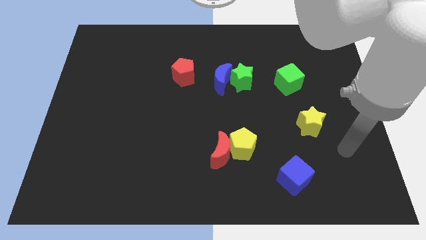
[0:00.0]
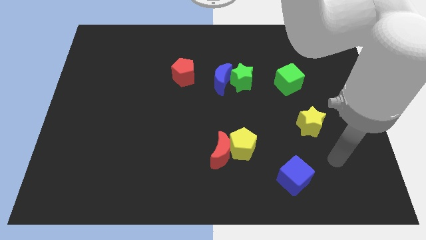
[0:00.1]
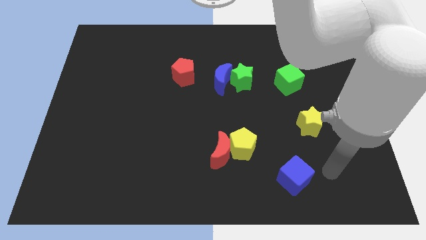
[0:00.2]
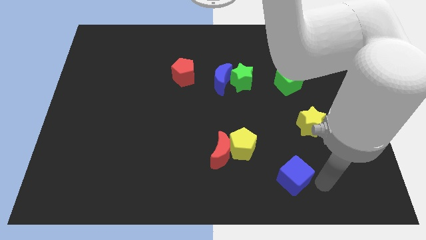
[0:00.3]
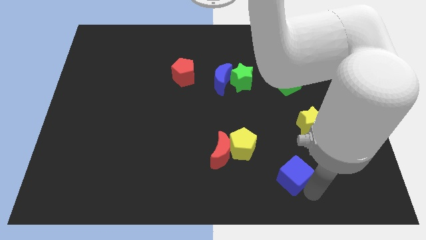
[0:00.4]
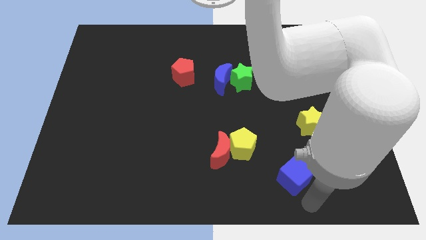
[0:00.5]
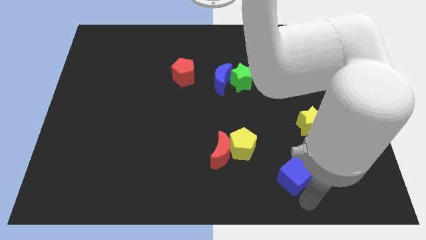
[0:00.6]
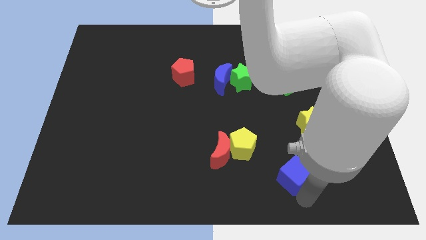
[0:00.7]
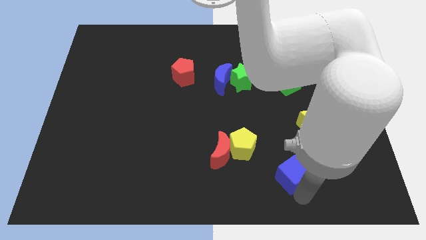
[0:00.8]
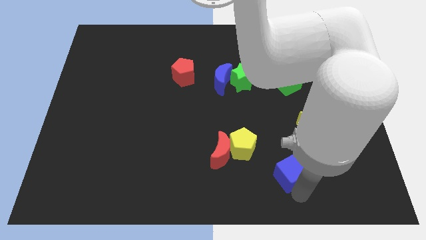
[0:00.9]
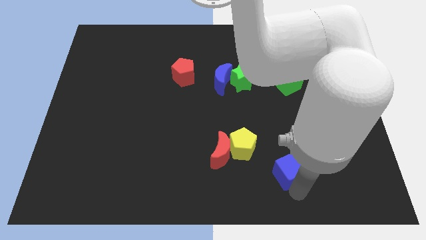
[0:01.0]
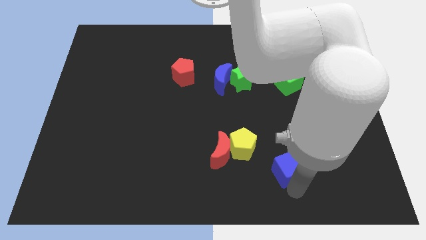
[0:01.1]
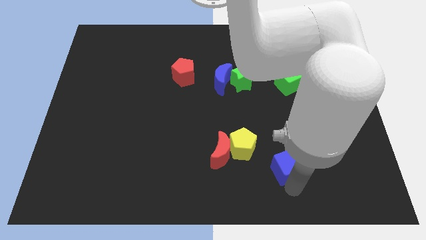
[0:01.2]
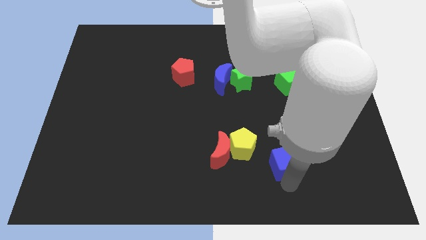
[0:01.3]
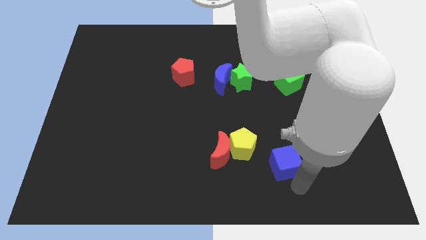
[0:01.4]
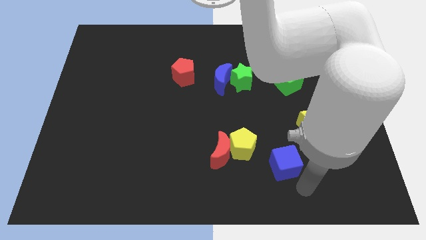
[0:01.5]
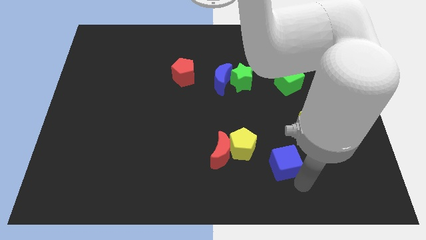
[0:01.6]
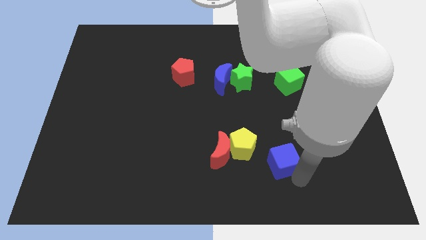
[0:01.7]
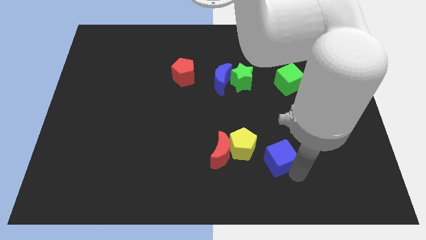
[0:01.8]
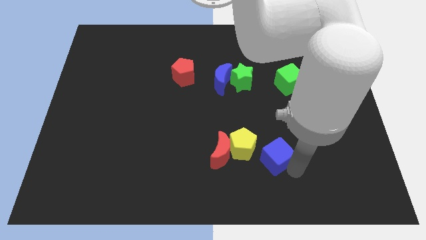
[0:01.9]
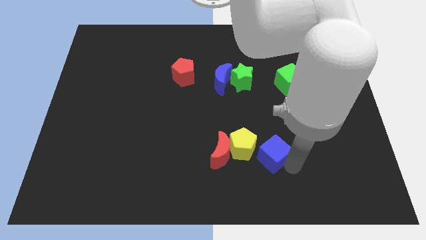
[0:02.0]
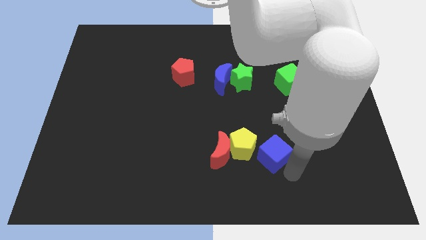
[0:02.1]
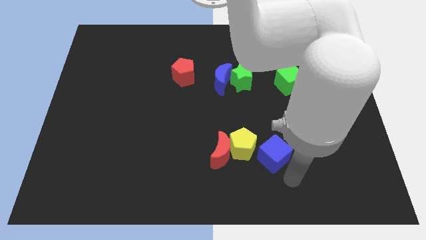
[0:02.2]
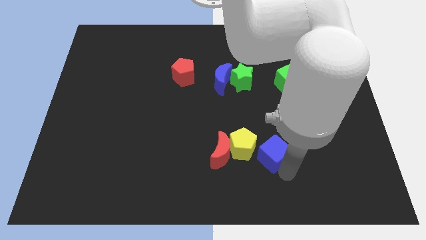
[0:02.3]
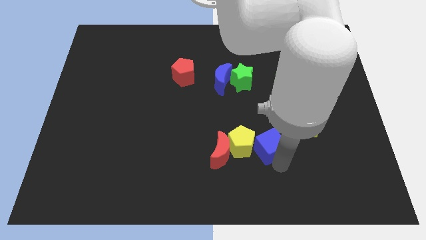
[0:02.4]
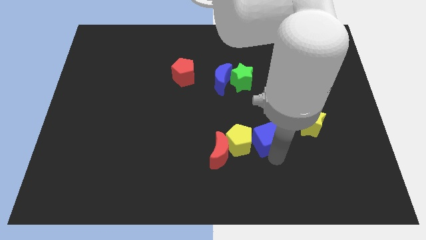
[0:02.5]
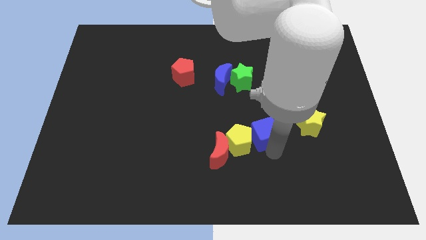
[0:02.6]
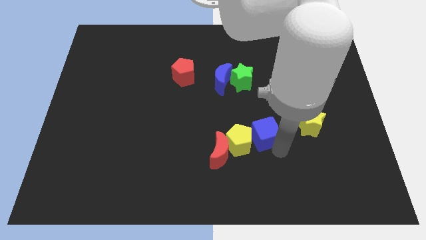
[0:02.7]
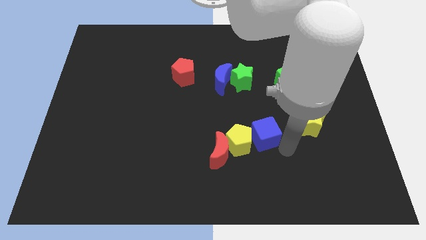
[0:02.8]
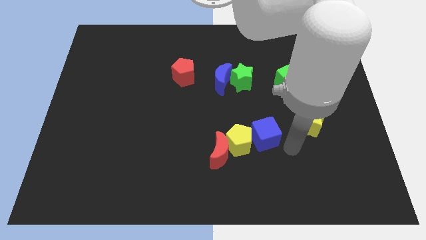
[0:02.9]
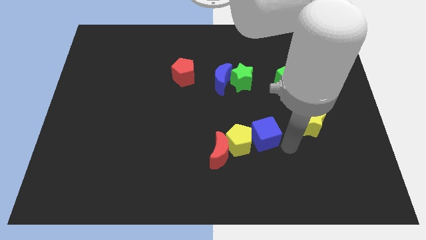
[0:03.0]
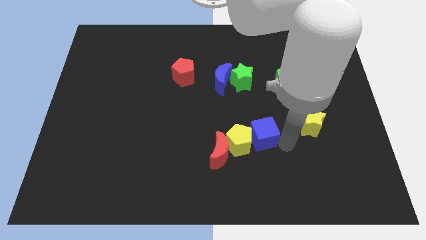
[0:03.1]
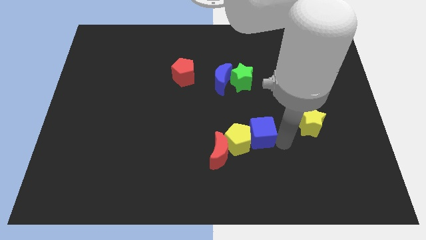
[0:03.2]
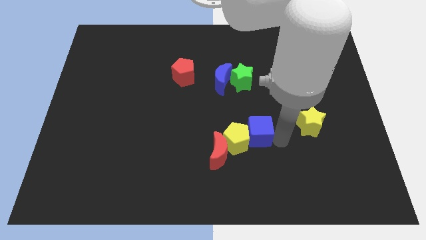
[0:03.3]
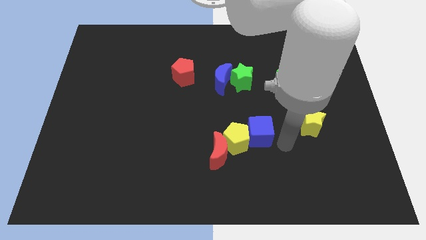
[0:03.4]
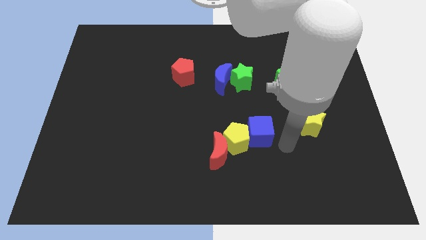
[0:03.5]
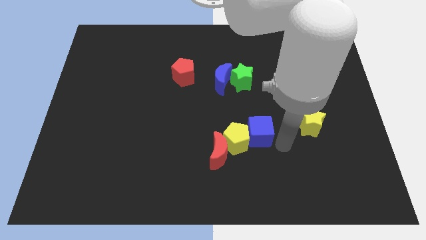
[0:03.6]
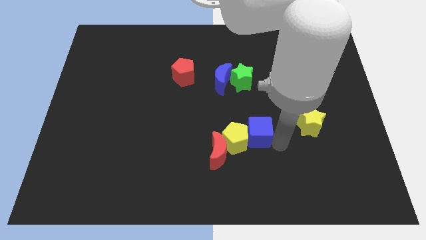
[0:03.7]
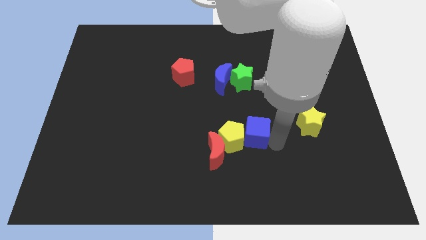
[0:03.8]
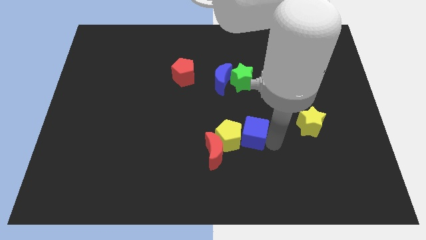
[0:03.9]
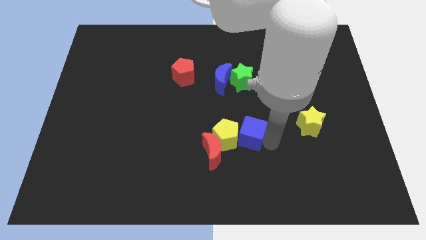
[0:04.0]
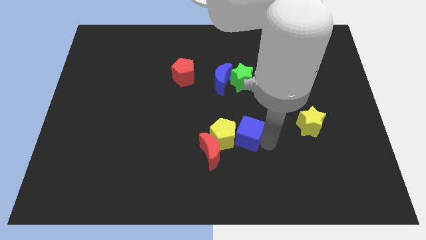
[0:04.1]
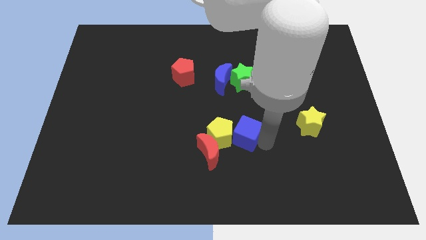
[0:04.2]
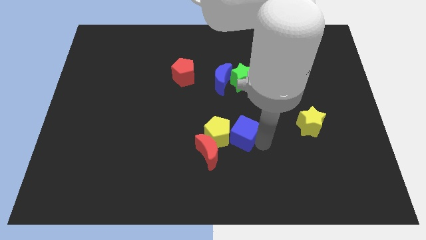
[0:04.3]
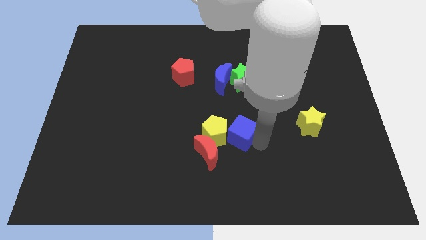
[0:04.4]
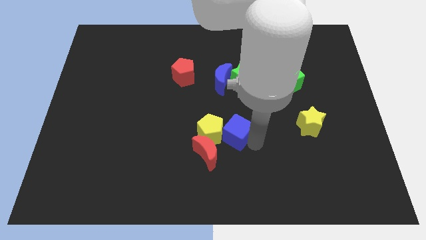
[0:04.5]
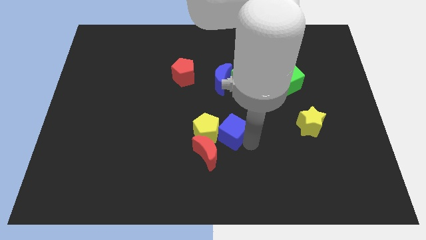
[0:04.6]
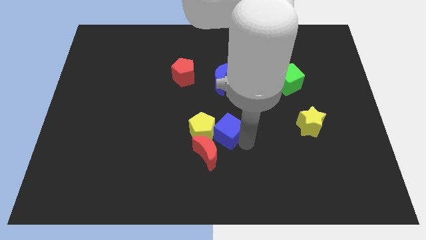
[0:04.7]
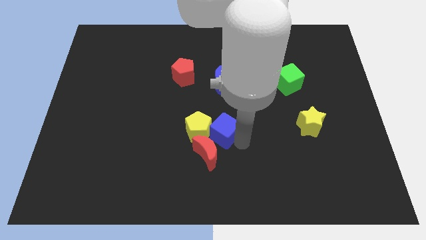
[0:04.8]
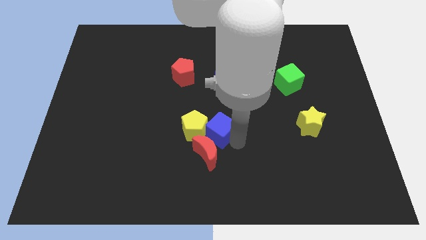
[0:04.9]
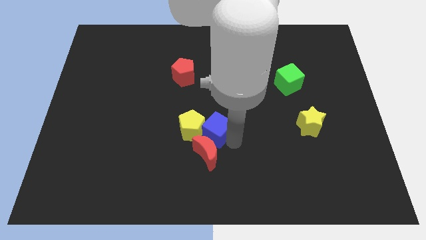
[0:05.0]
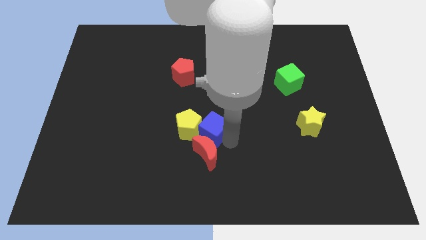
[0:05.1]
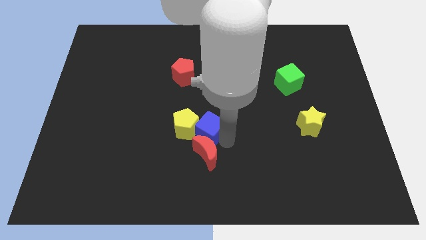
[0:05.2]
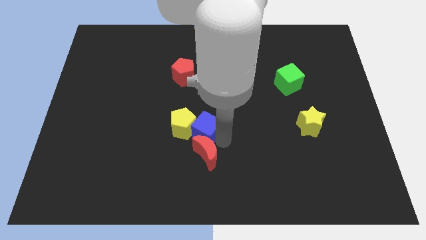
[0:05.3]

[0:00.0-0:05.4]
slide the blue cube up and then to the left

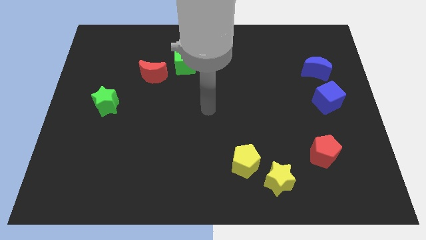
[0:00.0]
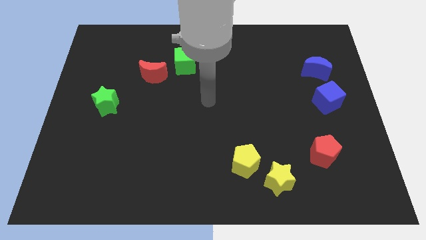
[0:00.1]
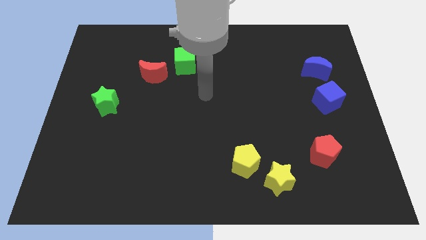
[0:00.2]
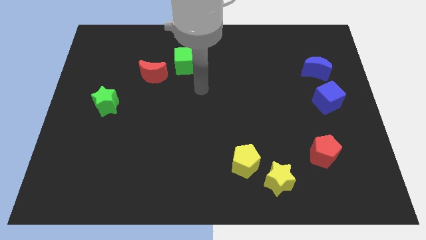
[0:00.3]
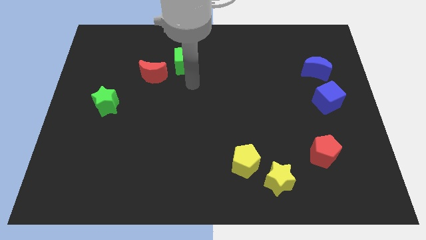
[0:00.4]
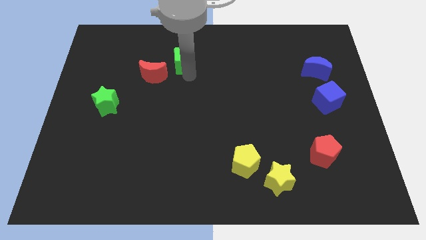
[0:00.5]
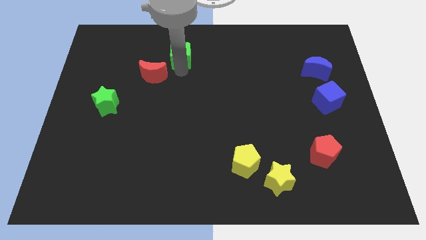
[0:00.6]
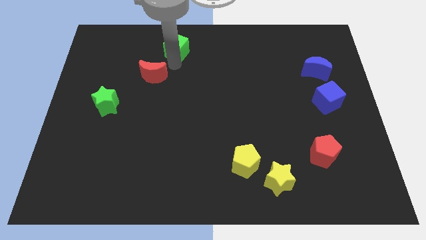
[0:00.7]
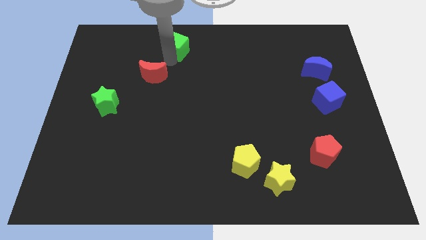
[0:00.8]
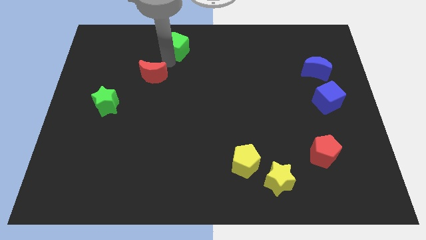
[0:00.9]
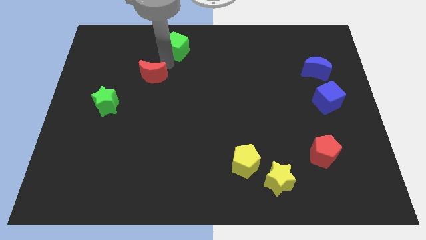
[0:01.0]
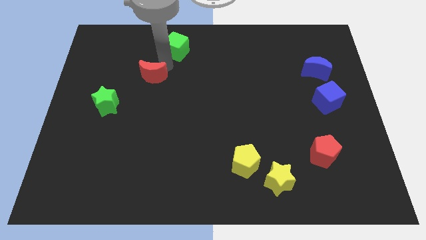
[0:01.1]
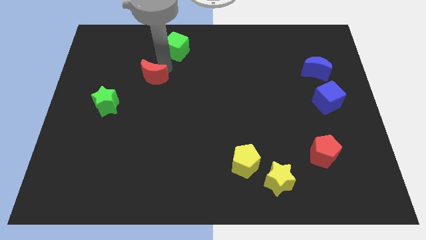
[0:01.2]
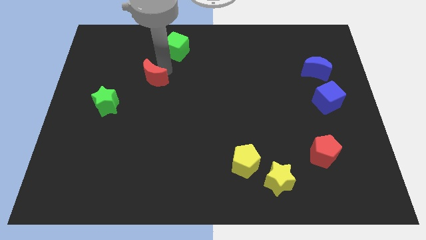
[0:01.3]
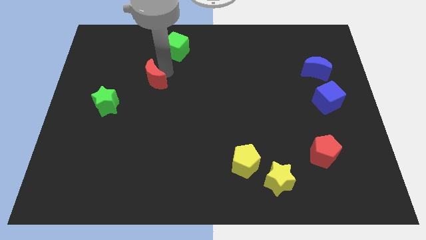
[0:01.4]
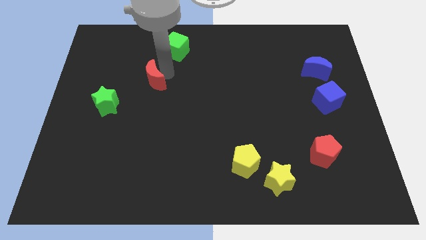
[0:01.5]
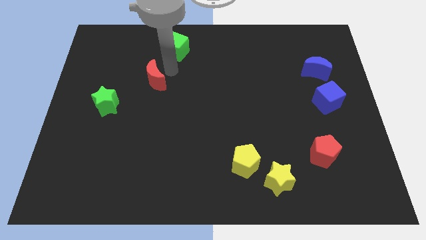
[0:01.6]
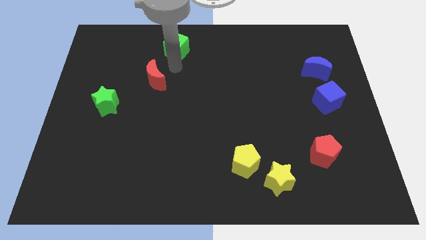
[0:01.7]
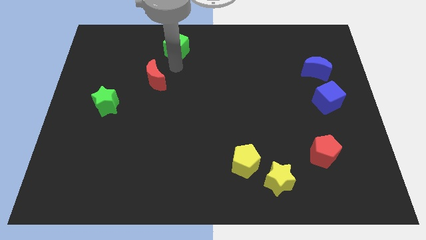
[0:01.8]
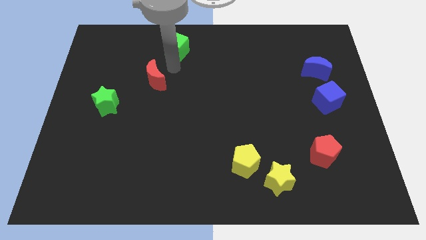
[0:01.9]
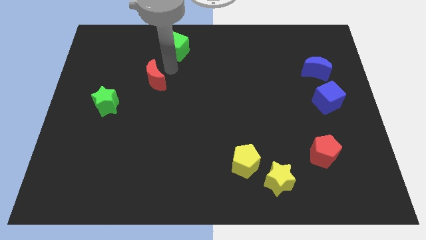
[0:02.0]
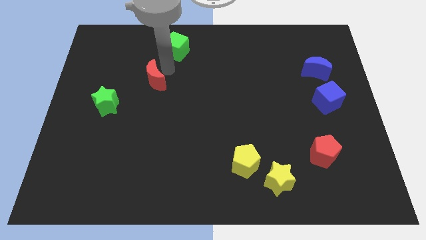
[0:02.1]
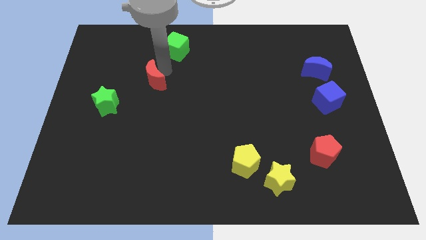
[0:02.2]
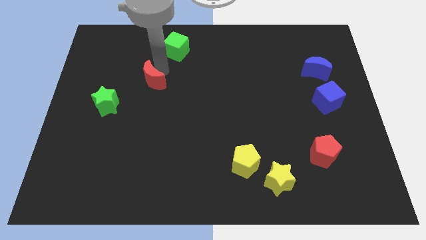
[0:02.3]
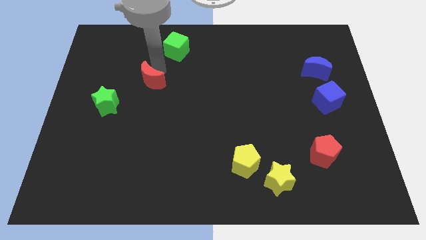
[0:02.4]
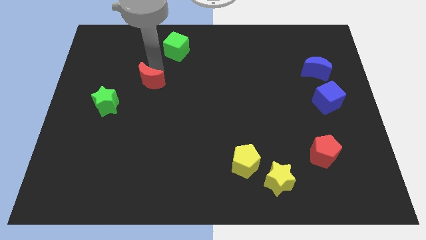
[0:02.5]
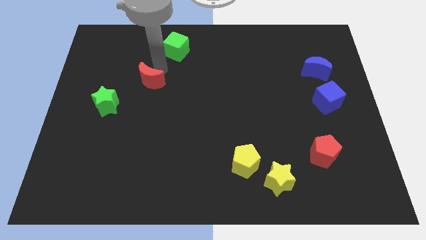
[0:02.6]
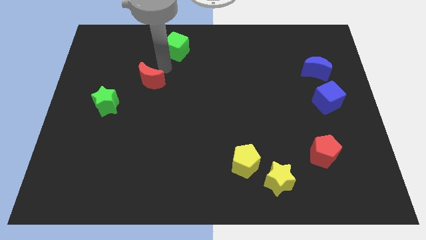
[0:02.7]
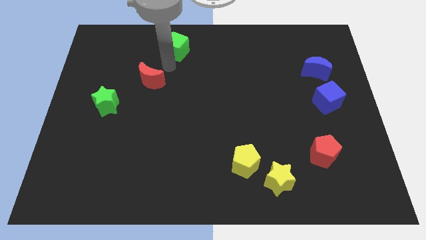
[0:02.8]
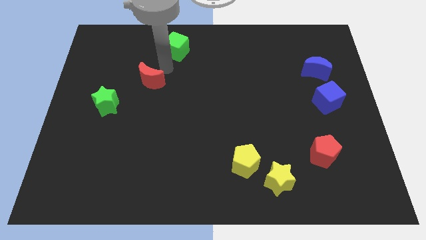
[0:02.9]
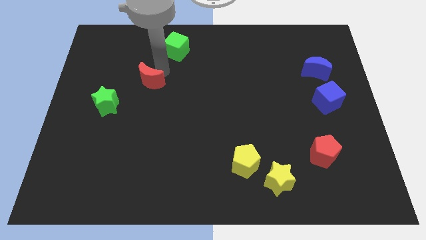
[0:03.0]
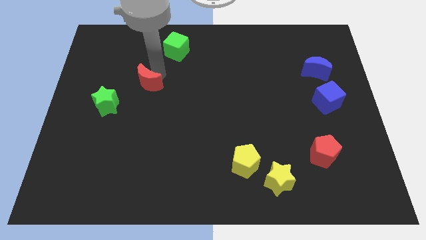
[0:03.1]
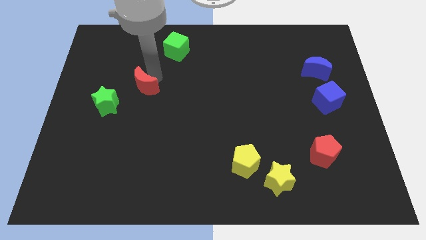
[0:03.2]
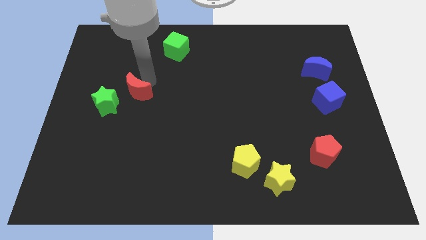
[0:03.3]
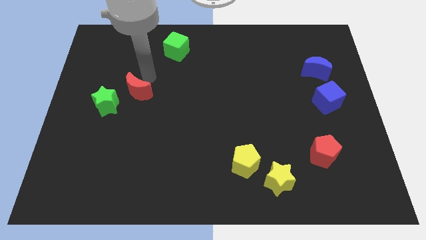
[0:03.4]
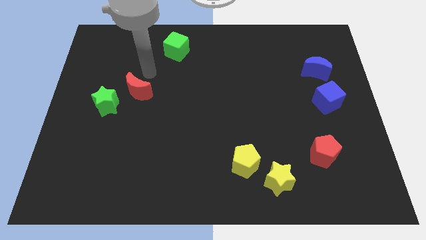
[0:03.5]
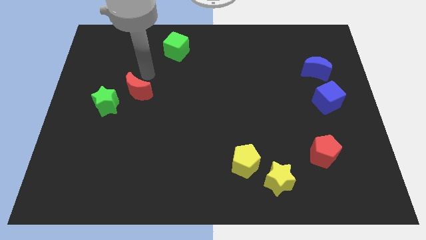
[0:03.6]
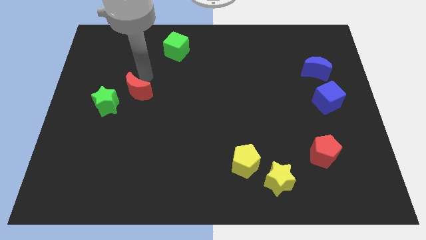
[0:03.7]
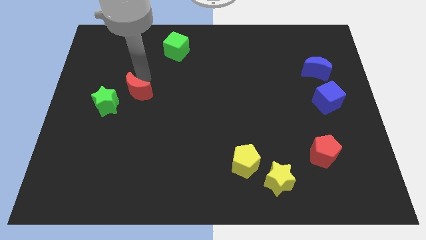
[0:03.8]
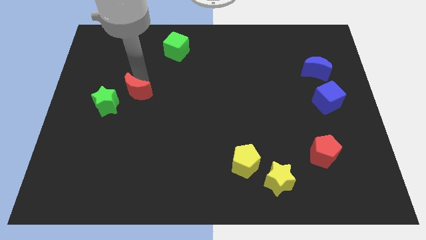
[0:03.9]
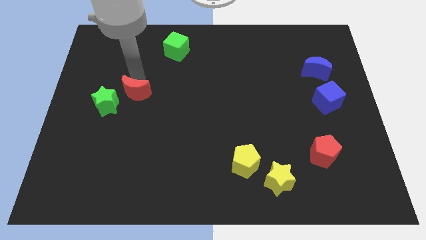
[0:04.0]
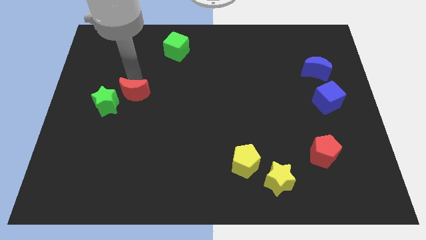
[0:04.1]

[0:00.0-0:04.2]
slide the red moon slightly diagonally down and left
